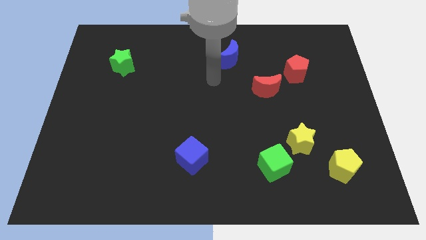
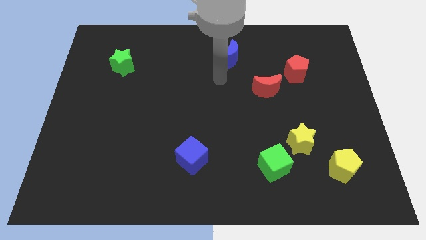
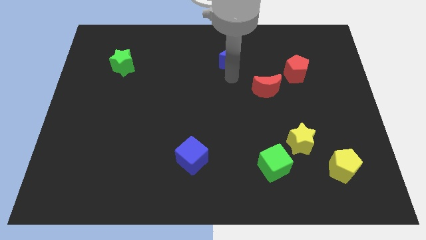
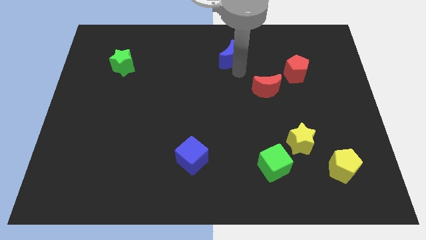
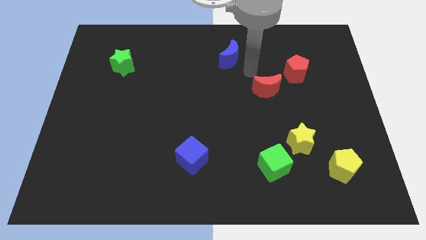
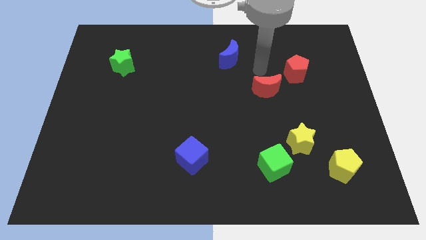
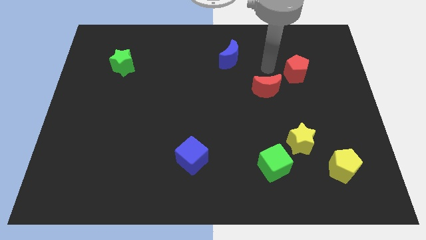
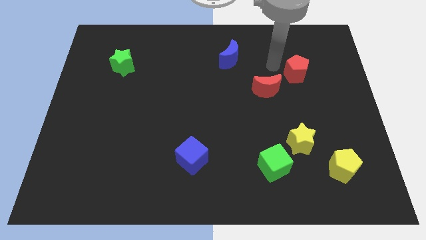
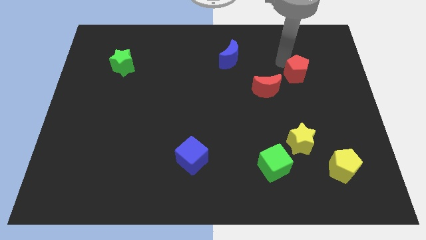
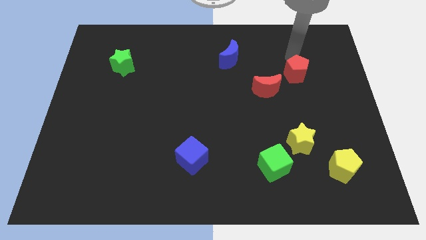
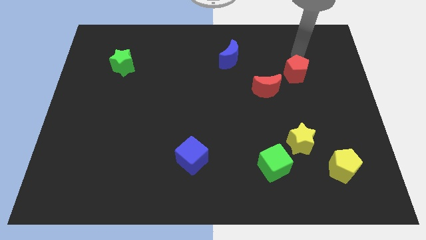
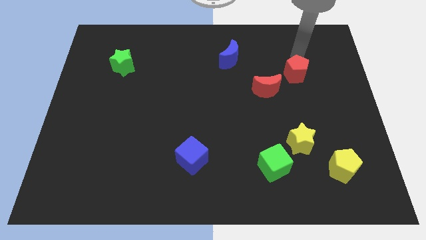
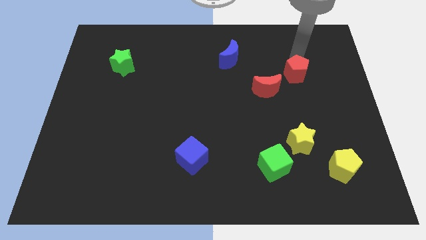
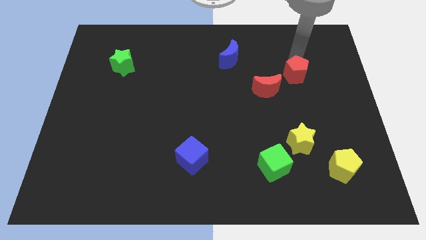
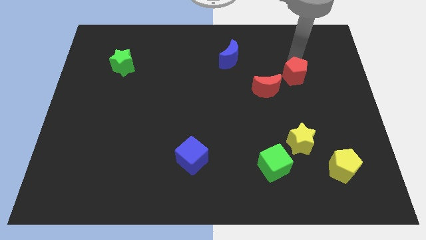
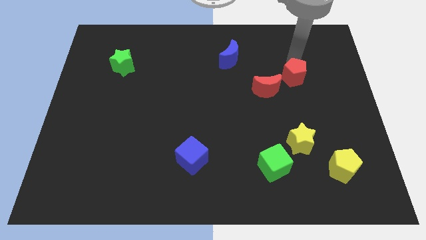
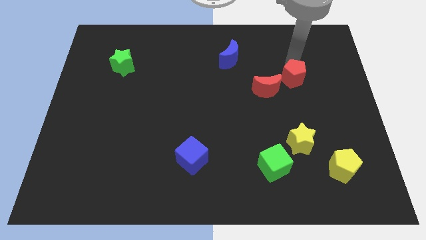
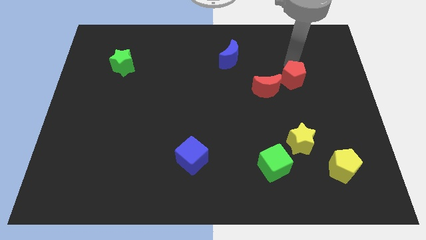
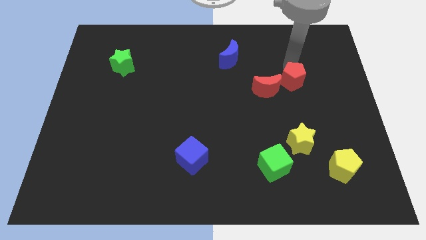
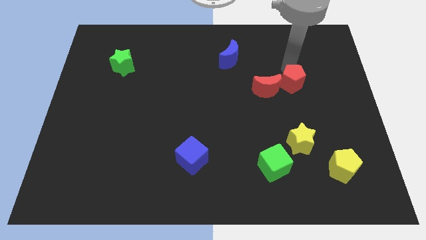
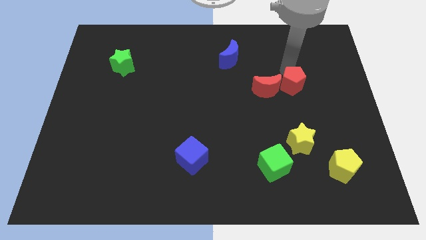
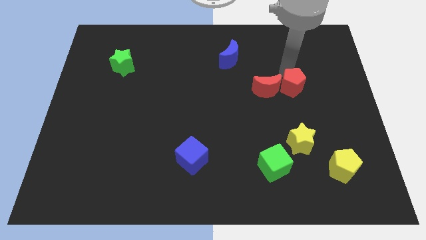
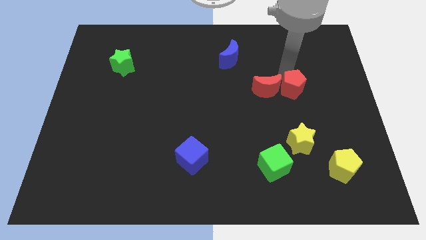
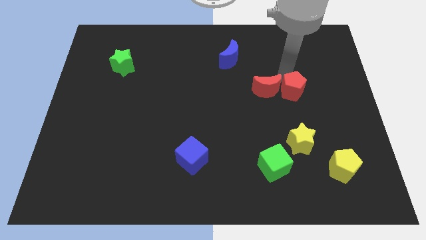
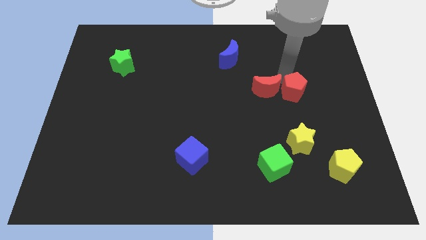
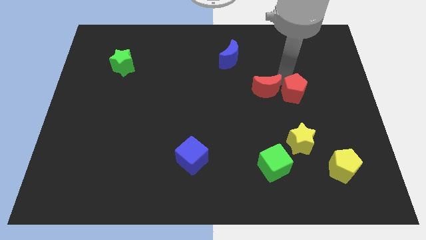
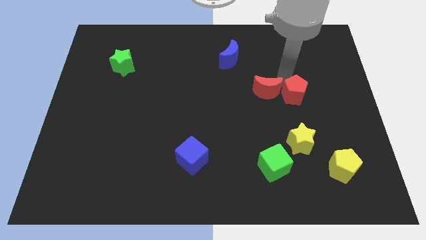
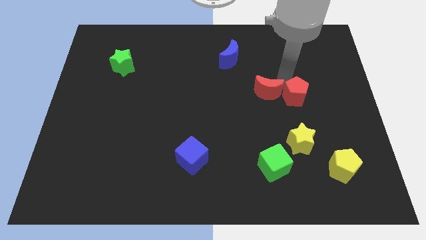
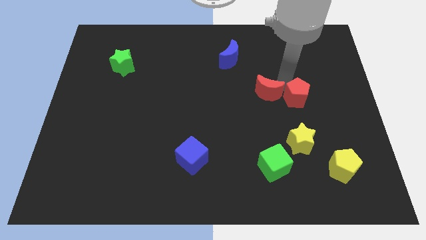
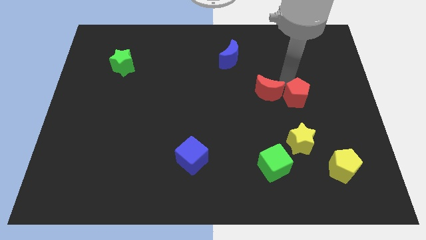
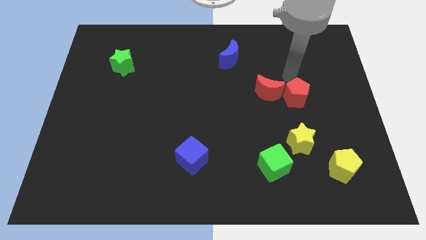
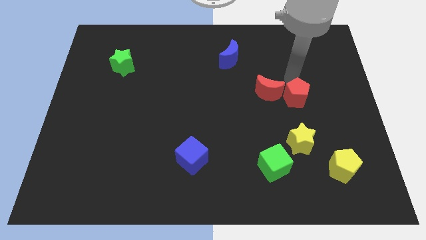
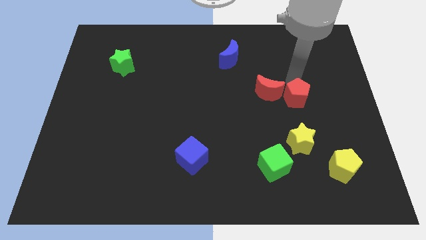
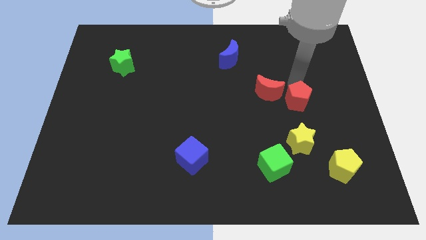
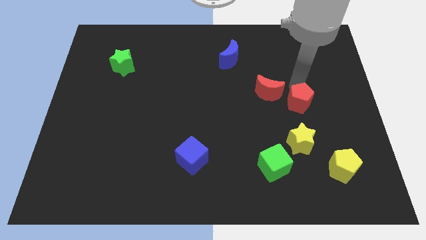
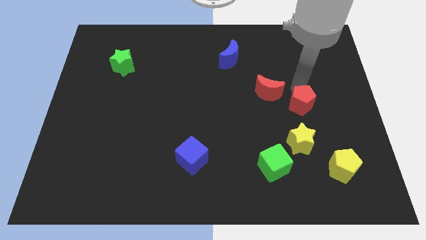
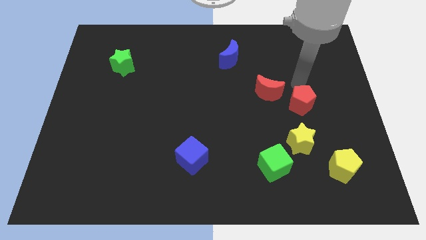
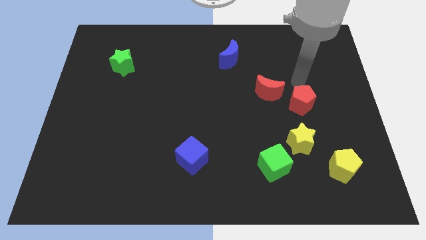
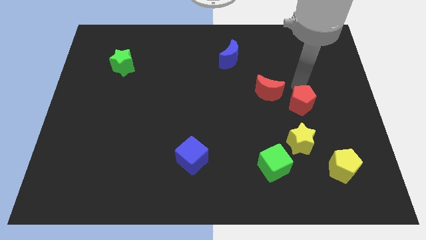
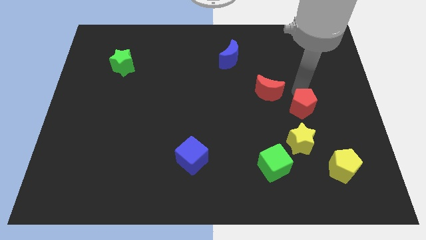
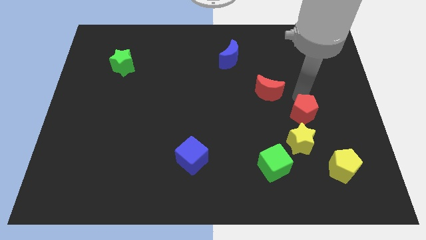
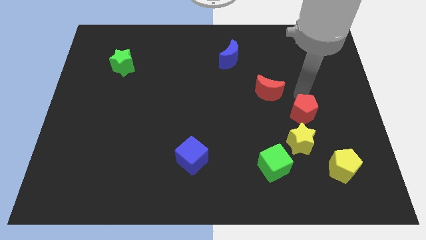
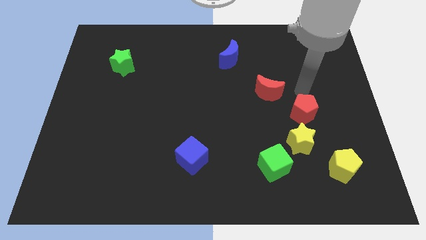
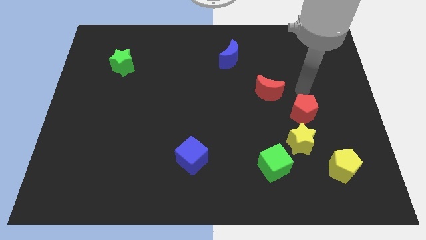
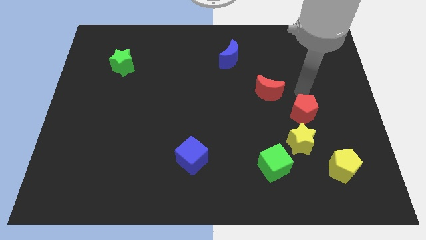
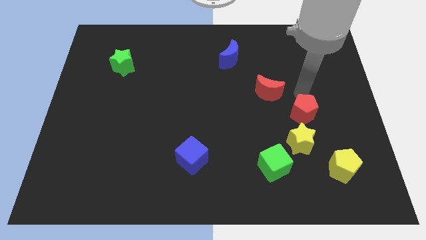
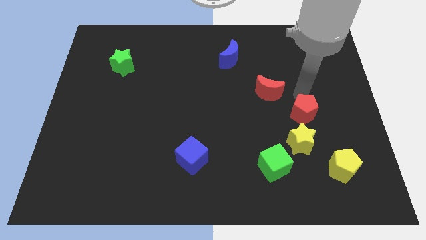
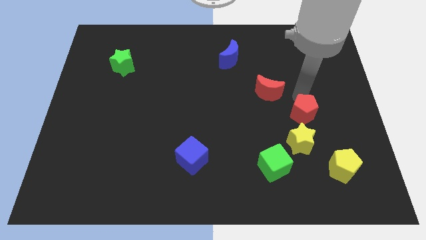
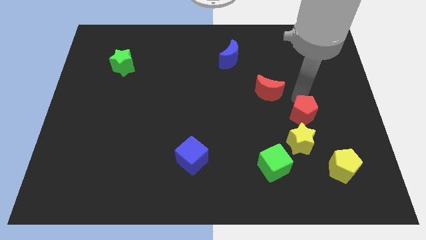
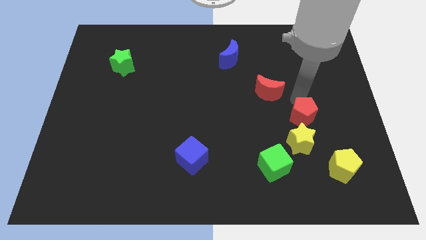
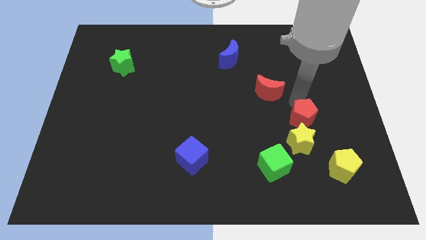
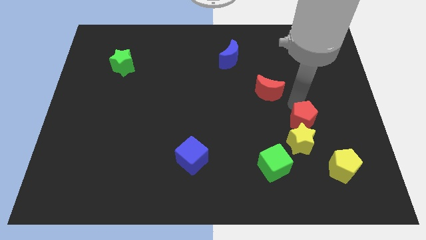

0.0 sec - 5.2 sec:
push the red pentagon close to the yellow star
